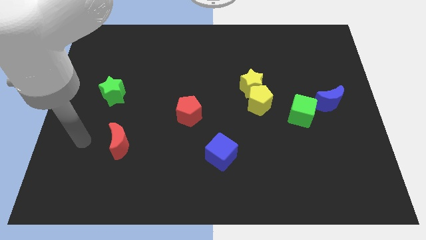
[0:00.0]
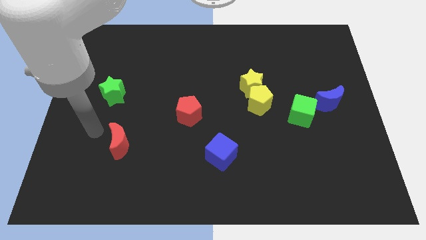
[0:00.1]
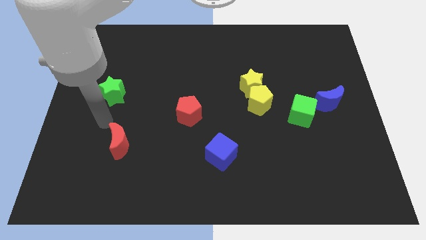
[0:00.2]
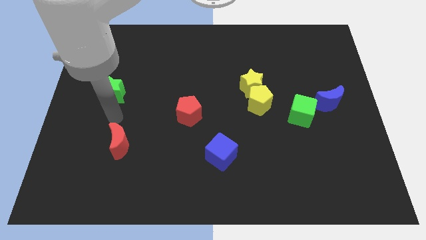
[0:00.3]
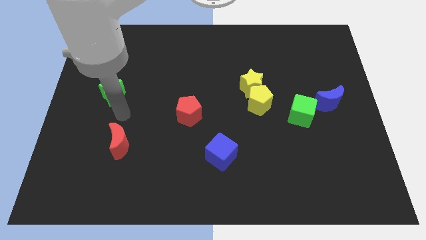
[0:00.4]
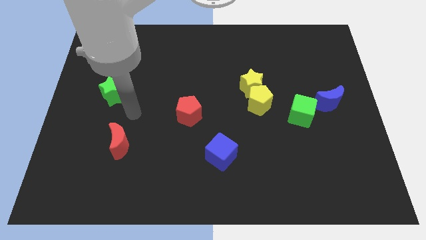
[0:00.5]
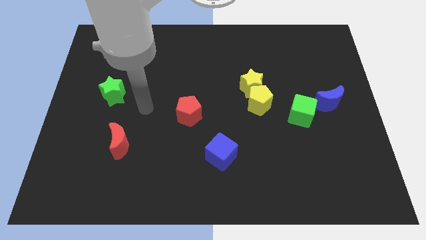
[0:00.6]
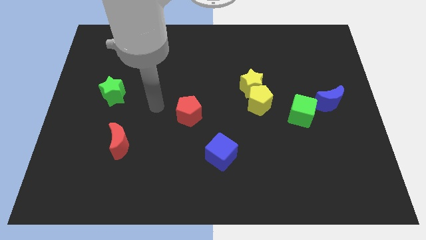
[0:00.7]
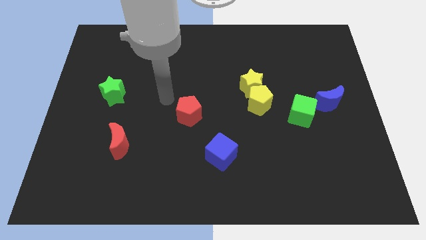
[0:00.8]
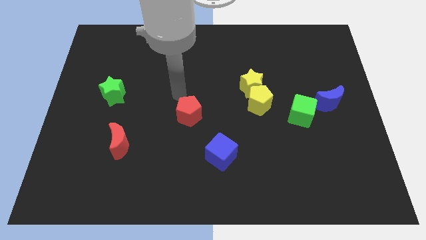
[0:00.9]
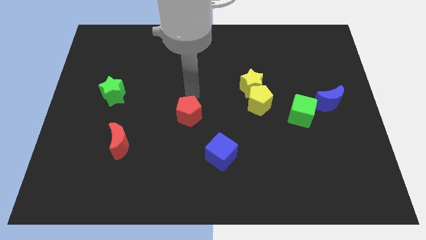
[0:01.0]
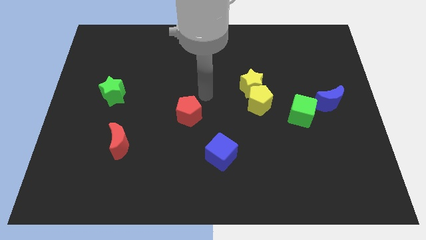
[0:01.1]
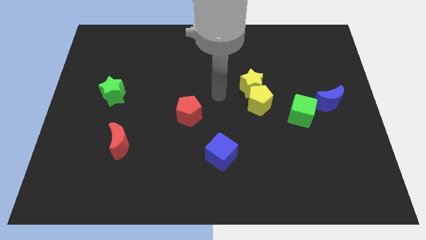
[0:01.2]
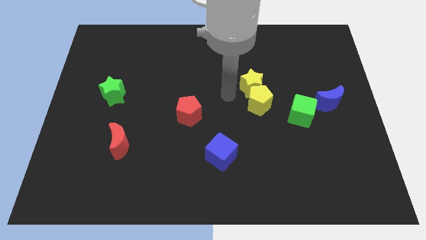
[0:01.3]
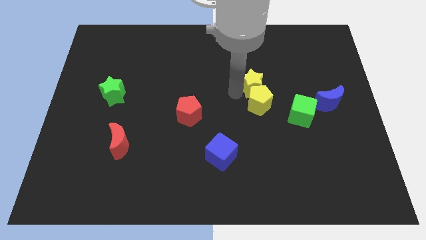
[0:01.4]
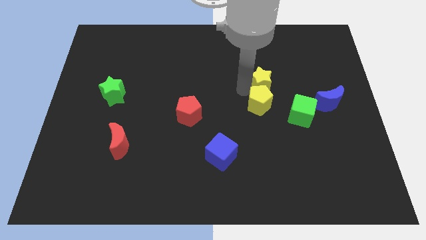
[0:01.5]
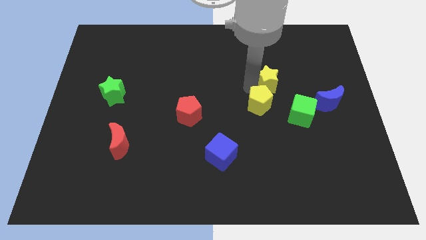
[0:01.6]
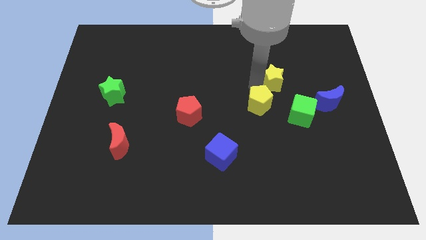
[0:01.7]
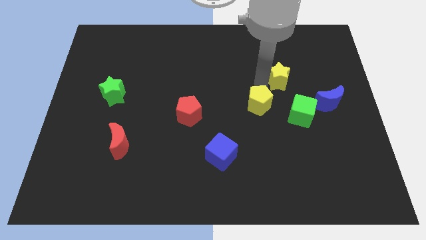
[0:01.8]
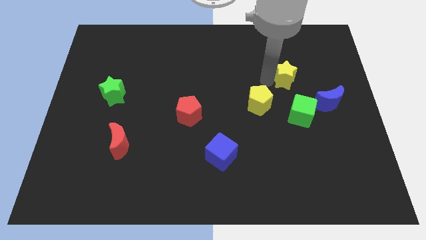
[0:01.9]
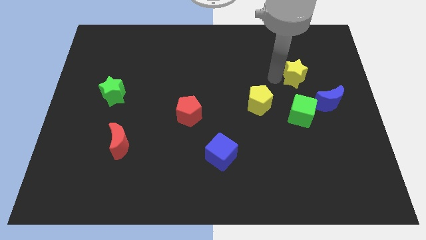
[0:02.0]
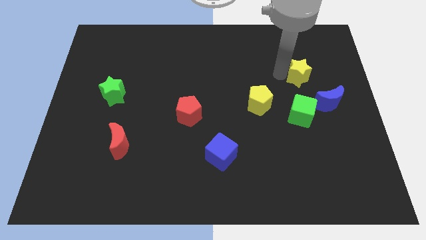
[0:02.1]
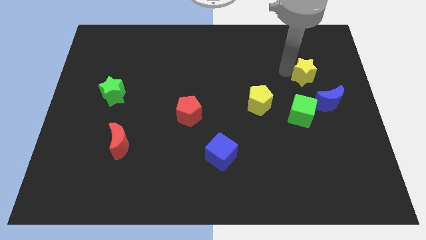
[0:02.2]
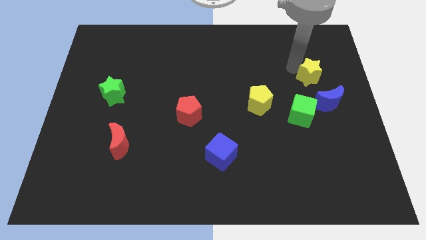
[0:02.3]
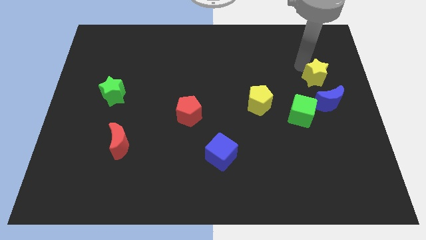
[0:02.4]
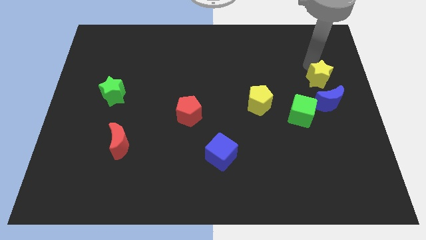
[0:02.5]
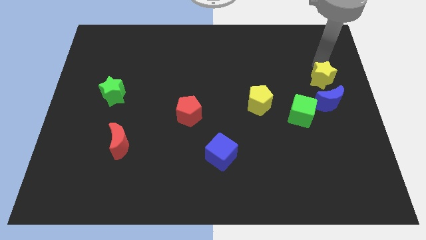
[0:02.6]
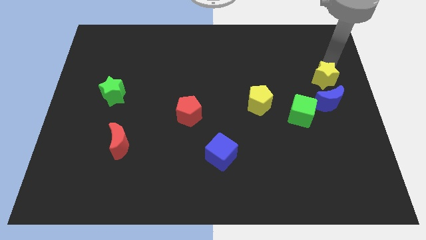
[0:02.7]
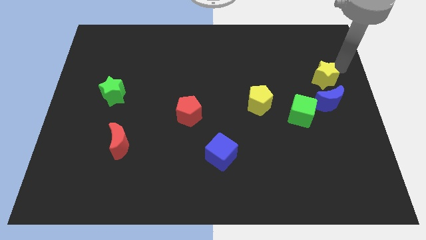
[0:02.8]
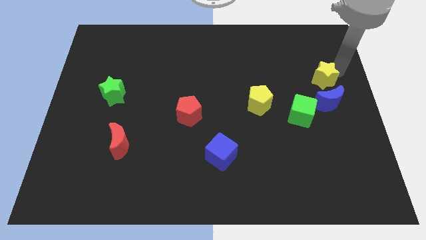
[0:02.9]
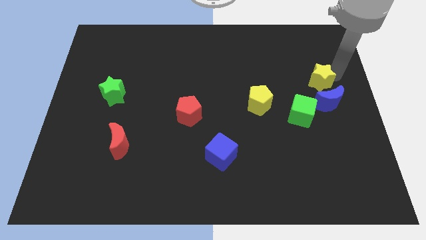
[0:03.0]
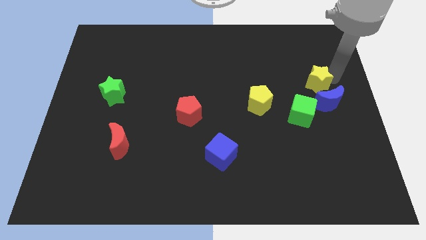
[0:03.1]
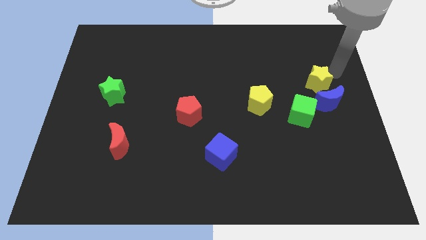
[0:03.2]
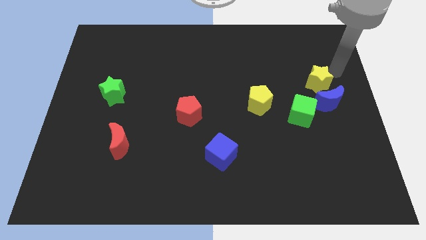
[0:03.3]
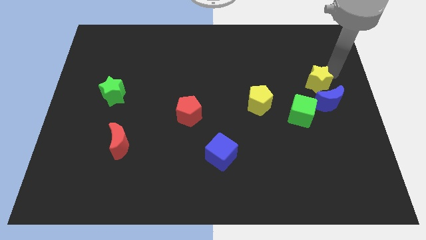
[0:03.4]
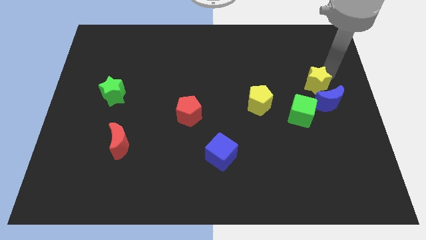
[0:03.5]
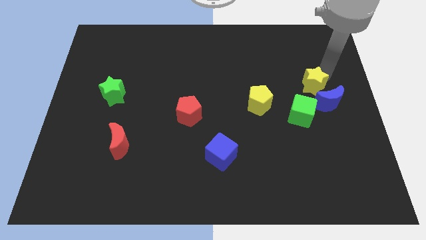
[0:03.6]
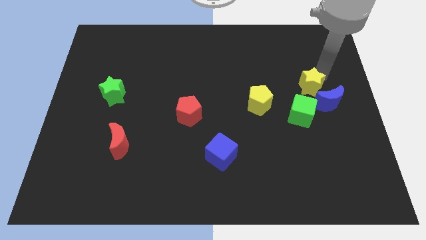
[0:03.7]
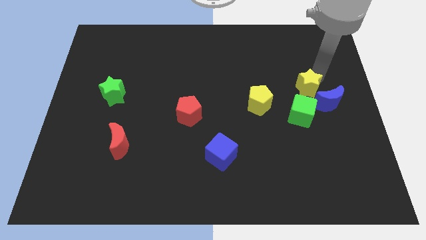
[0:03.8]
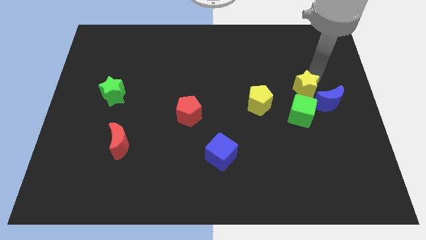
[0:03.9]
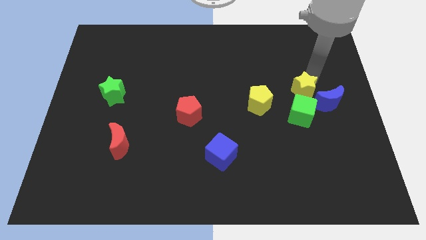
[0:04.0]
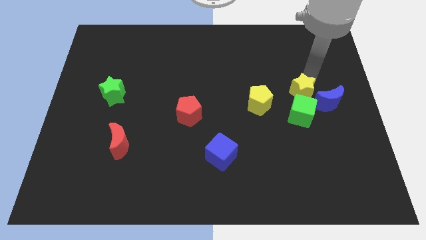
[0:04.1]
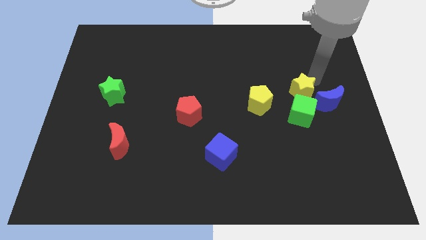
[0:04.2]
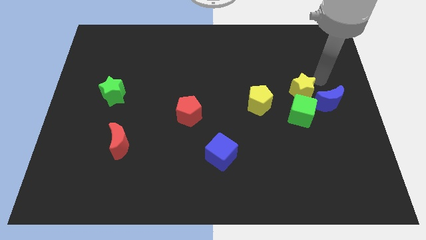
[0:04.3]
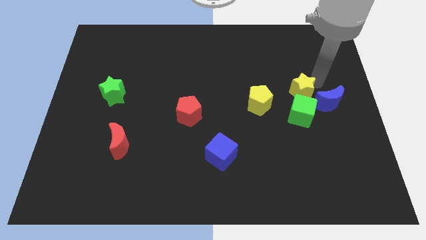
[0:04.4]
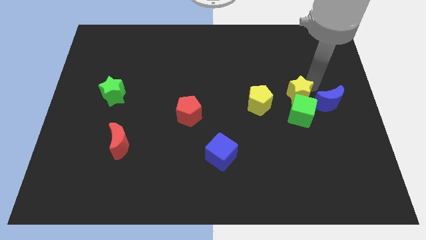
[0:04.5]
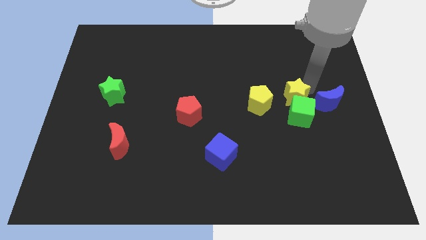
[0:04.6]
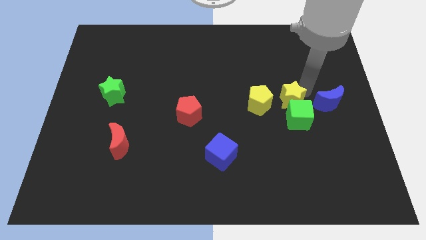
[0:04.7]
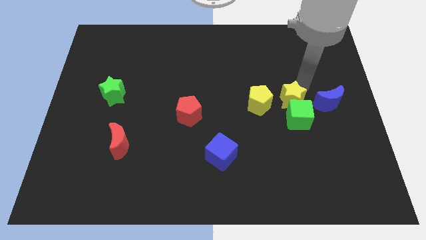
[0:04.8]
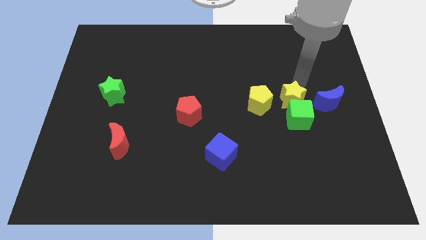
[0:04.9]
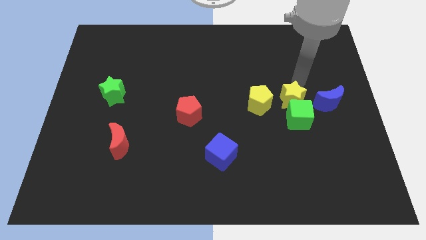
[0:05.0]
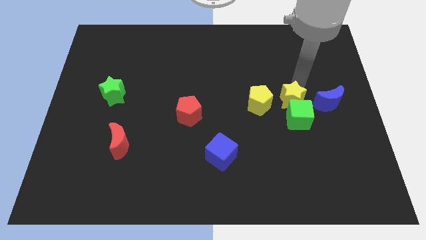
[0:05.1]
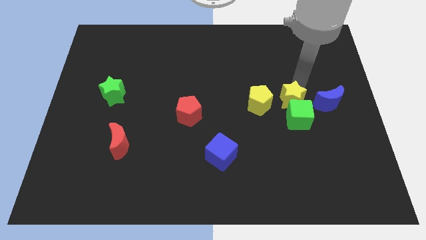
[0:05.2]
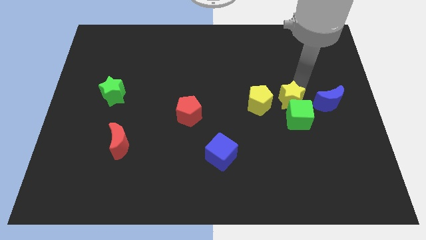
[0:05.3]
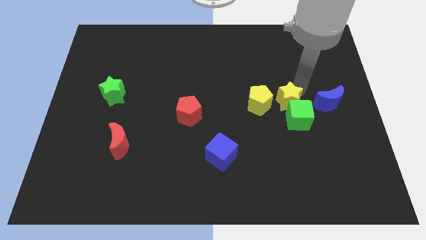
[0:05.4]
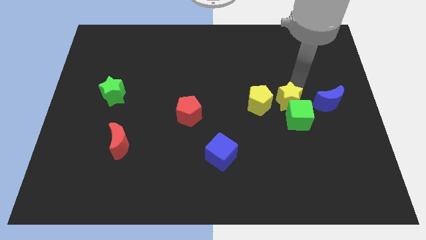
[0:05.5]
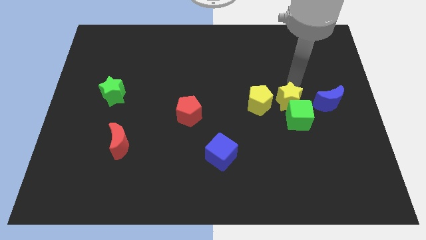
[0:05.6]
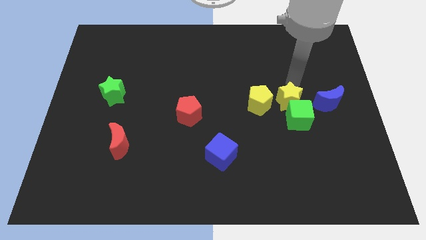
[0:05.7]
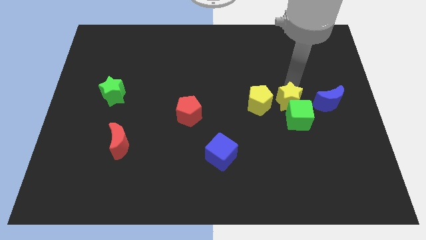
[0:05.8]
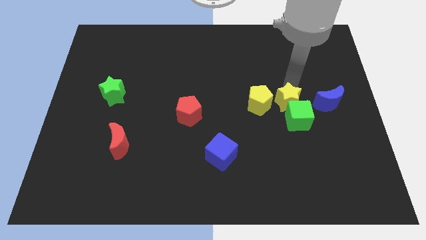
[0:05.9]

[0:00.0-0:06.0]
put the yellow star to the bottom right of the yellow pentagon

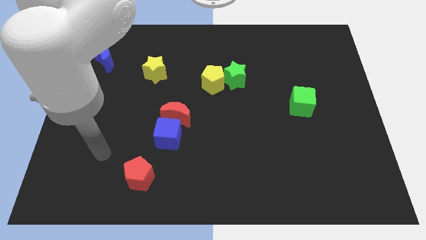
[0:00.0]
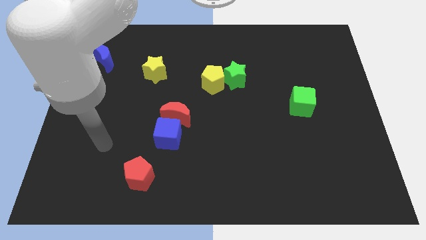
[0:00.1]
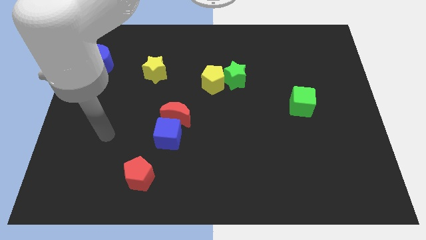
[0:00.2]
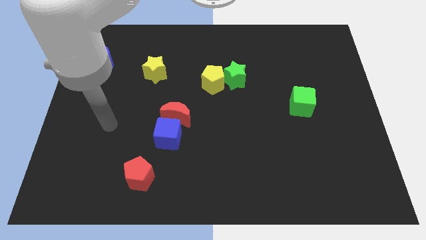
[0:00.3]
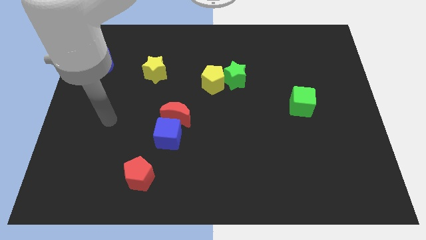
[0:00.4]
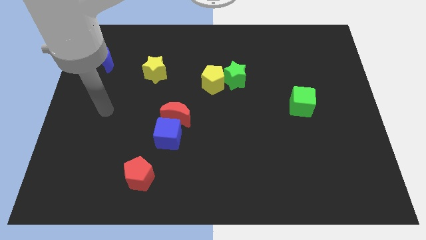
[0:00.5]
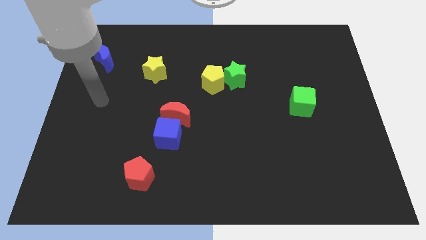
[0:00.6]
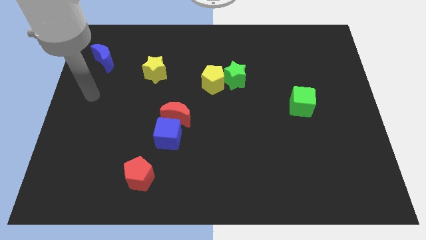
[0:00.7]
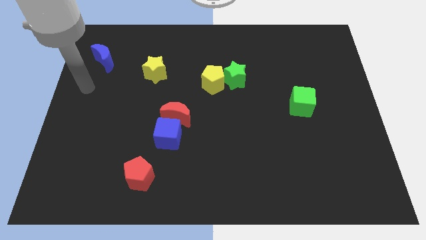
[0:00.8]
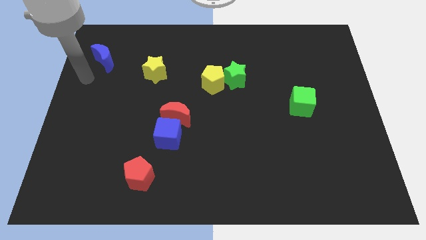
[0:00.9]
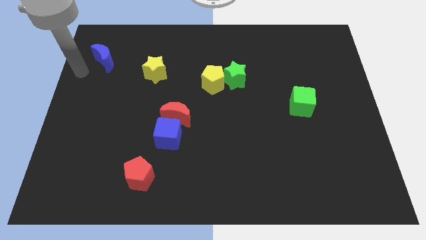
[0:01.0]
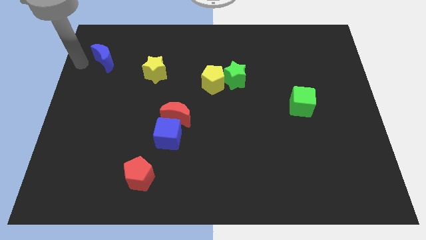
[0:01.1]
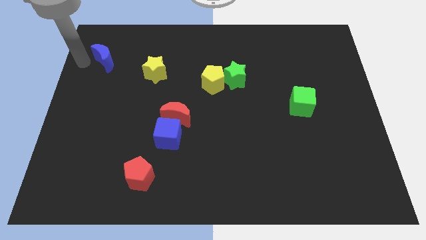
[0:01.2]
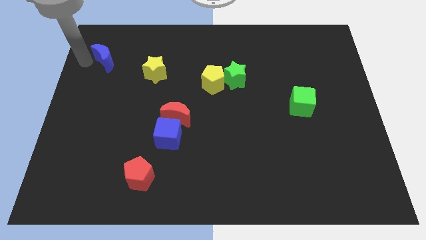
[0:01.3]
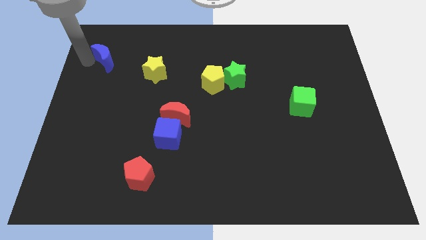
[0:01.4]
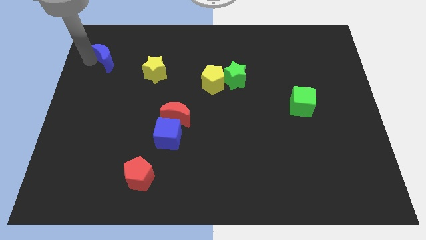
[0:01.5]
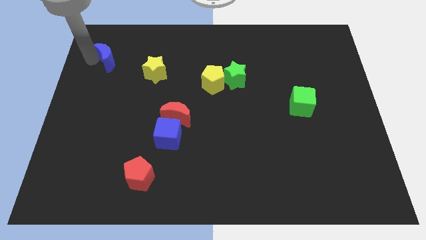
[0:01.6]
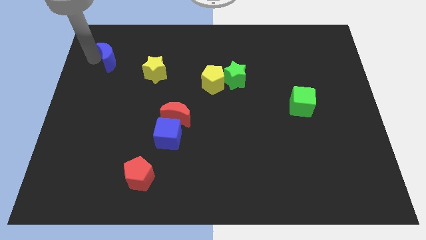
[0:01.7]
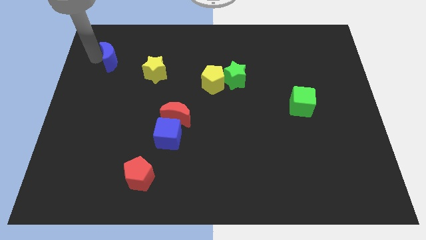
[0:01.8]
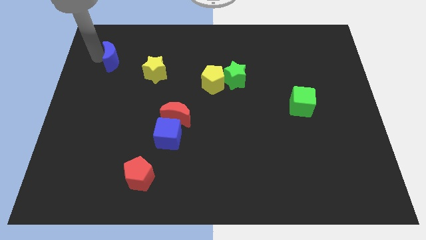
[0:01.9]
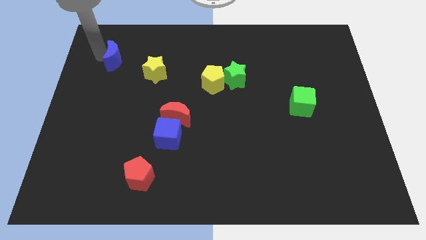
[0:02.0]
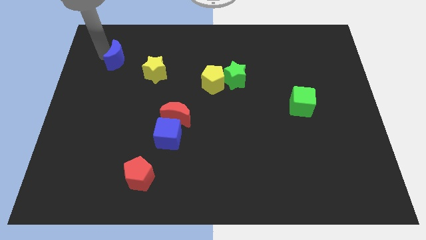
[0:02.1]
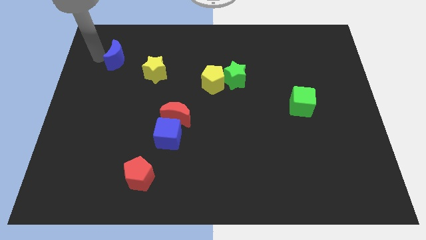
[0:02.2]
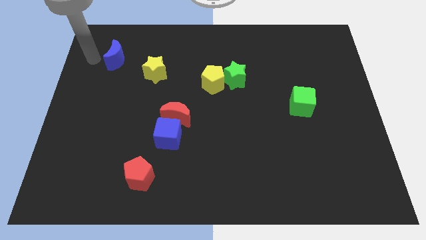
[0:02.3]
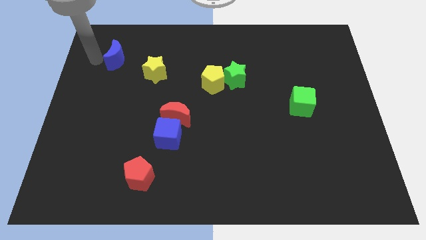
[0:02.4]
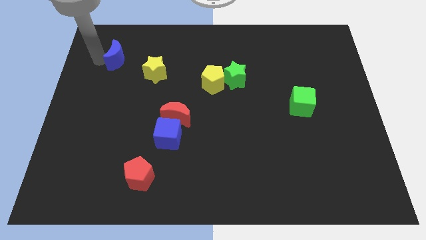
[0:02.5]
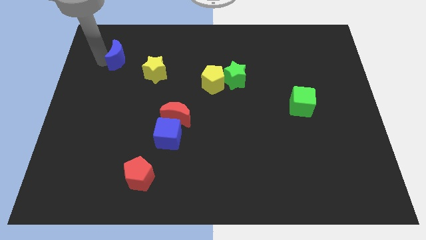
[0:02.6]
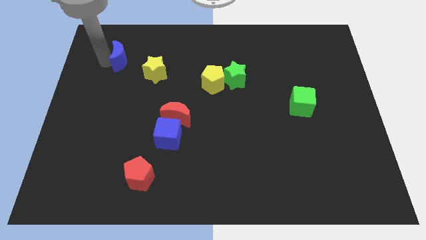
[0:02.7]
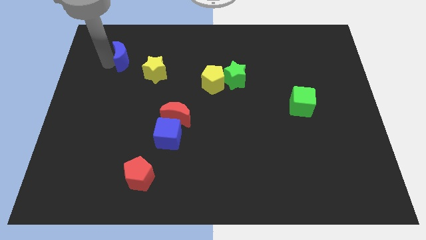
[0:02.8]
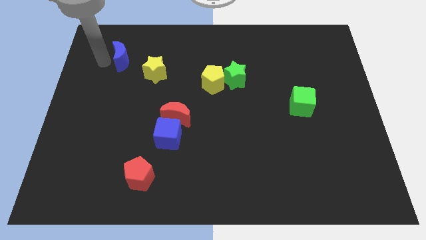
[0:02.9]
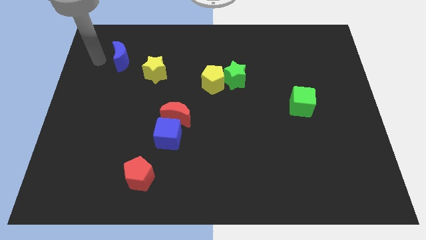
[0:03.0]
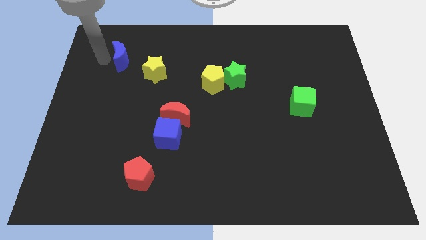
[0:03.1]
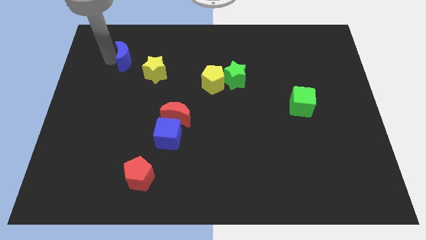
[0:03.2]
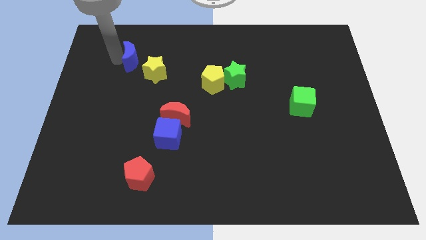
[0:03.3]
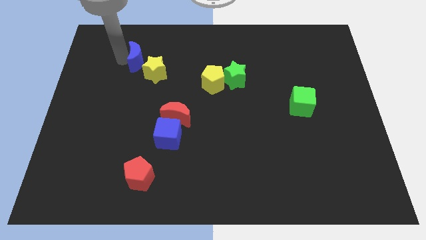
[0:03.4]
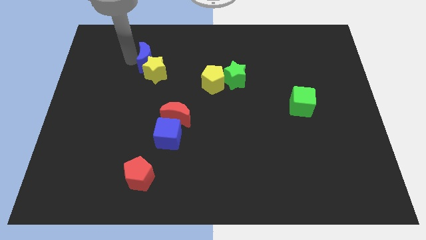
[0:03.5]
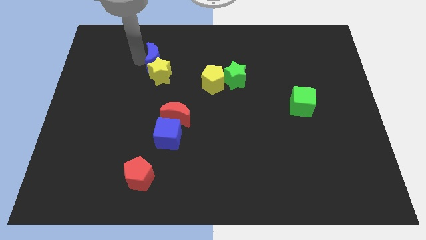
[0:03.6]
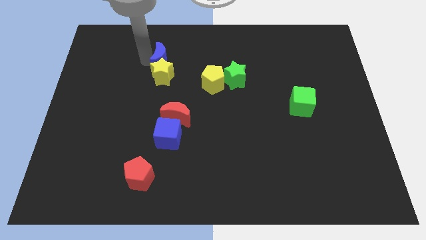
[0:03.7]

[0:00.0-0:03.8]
move the blue moon to the top right side of the yellow star
